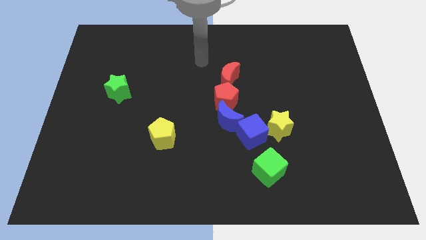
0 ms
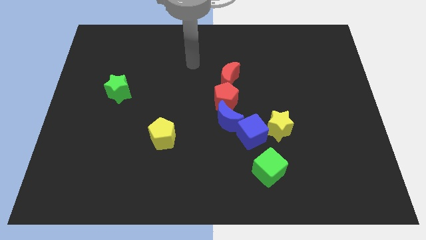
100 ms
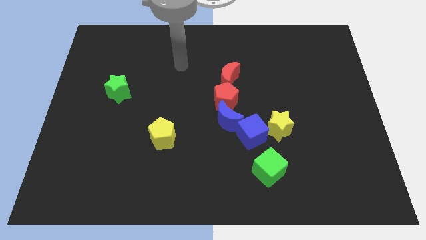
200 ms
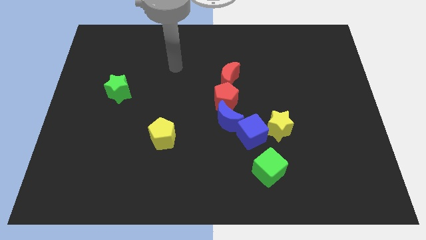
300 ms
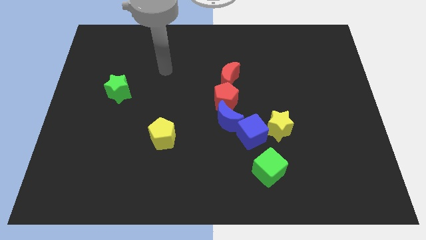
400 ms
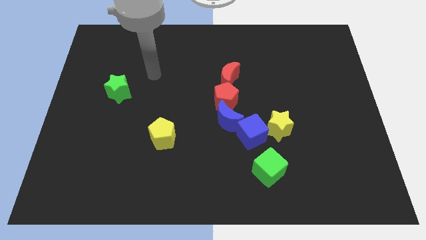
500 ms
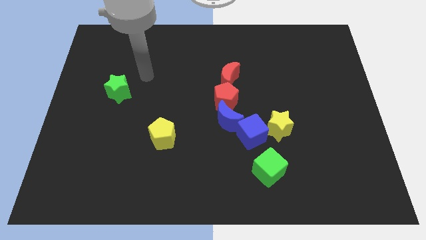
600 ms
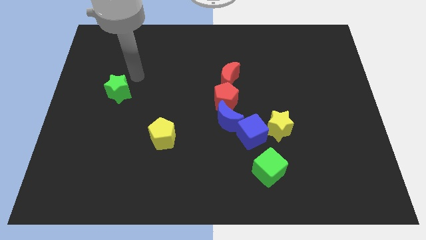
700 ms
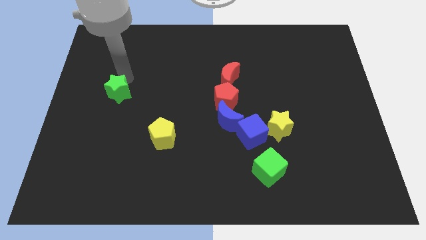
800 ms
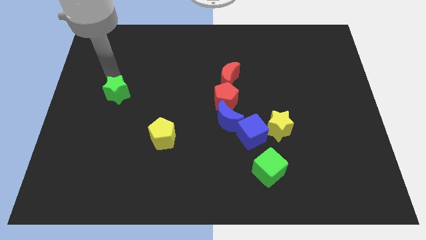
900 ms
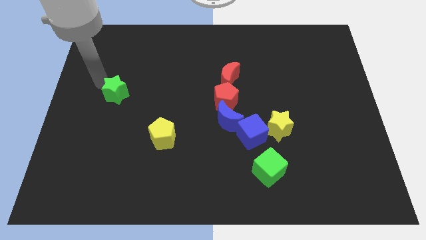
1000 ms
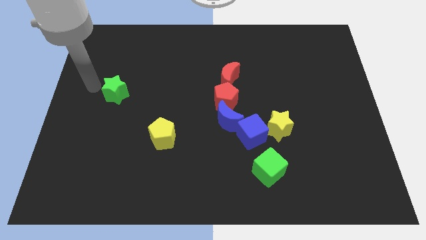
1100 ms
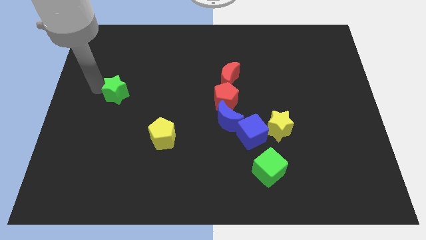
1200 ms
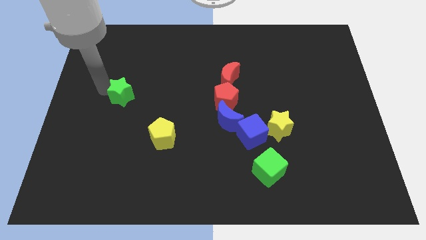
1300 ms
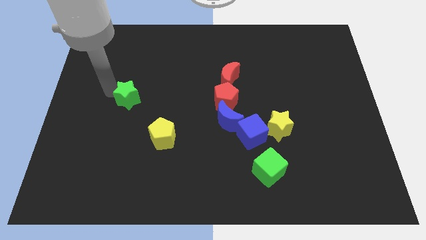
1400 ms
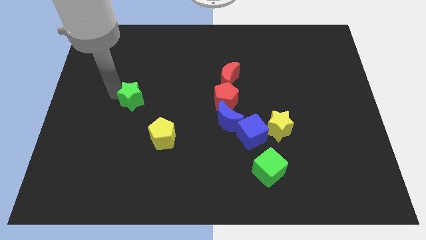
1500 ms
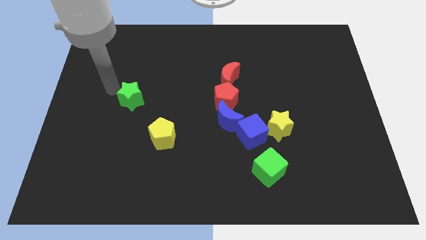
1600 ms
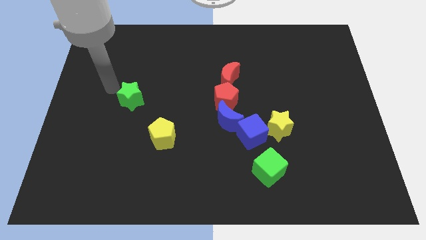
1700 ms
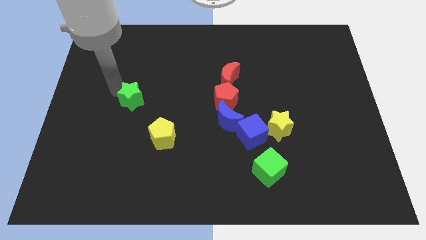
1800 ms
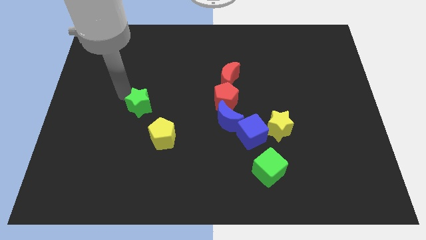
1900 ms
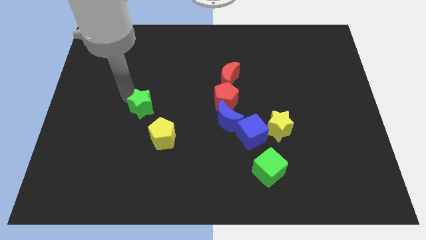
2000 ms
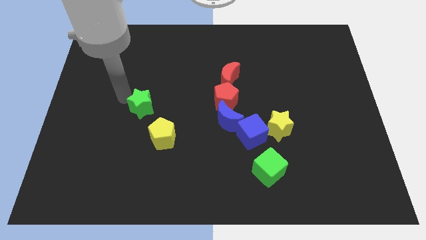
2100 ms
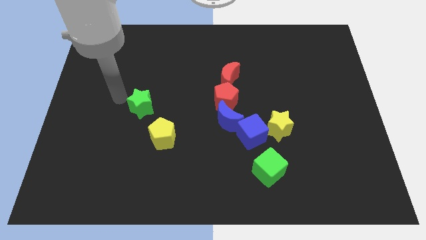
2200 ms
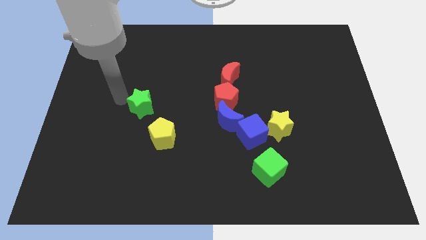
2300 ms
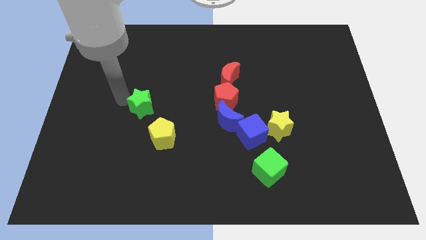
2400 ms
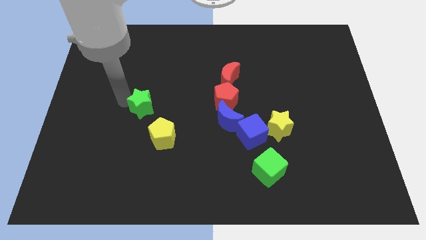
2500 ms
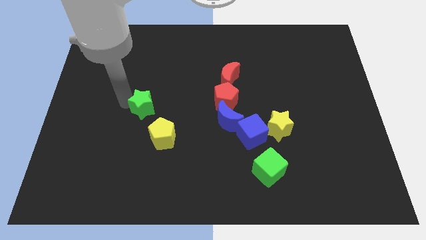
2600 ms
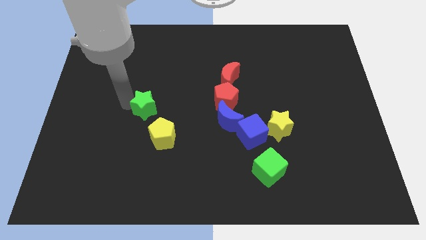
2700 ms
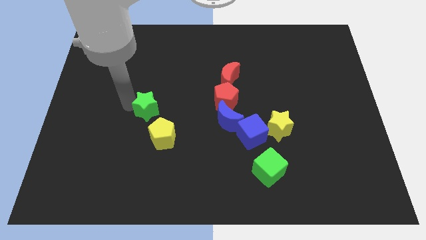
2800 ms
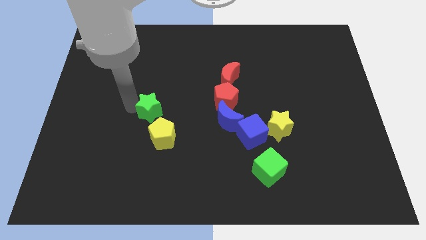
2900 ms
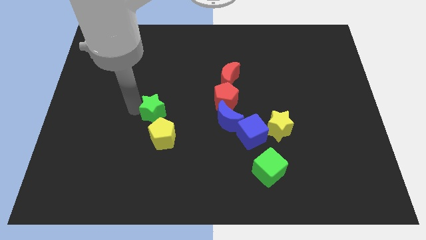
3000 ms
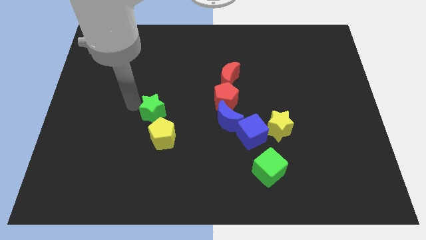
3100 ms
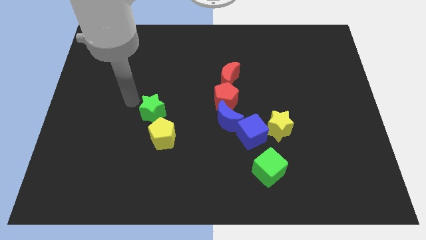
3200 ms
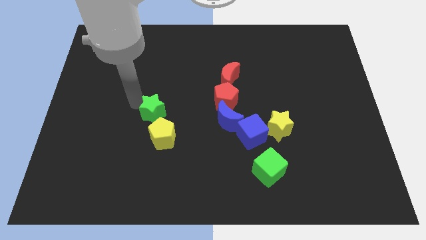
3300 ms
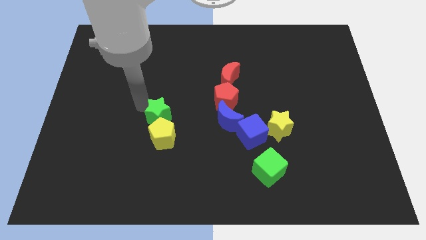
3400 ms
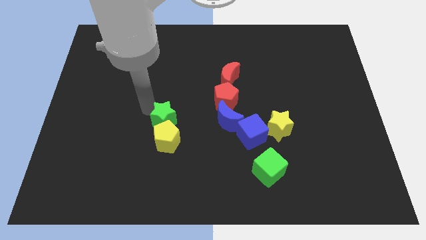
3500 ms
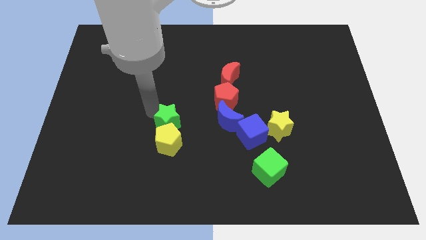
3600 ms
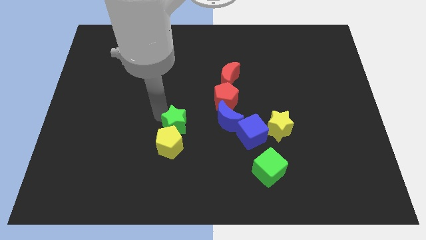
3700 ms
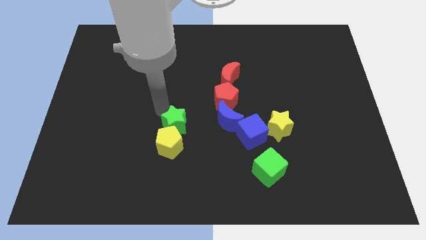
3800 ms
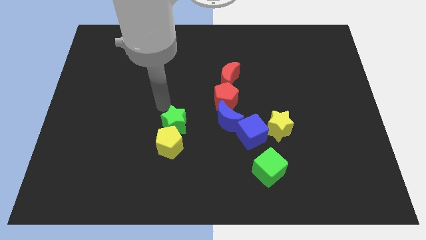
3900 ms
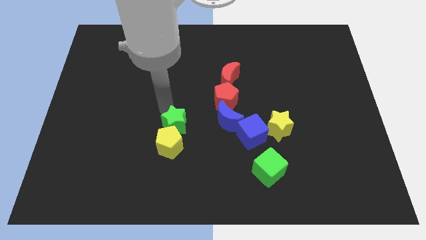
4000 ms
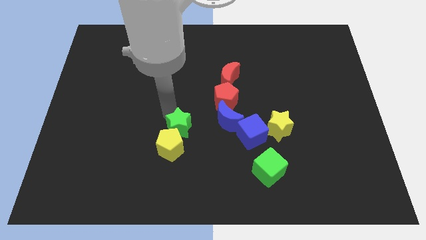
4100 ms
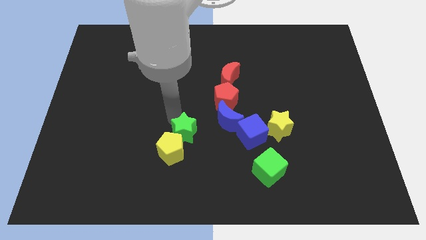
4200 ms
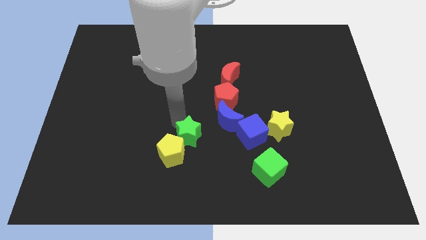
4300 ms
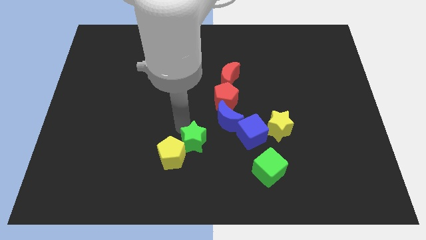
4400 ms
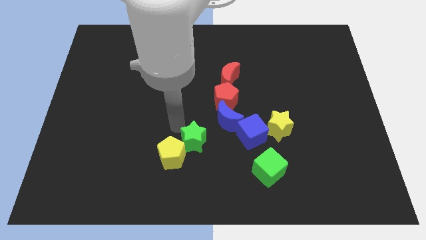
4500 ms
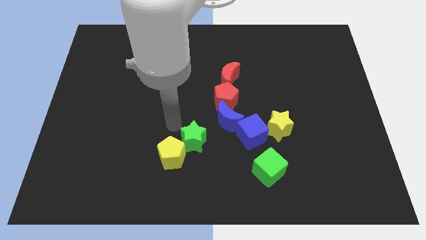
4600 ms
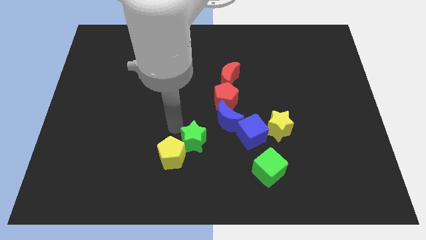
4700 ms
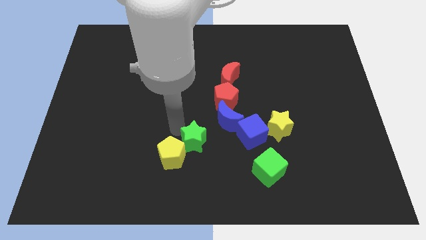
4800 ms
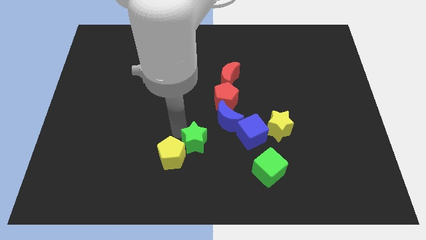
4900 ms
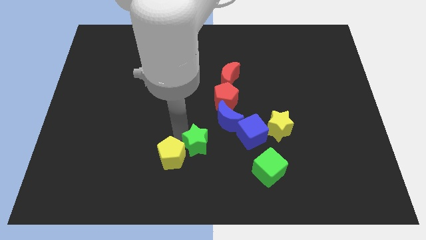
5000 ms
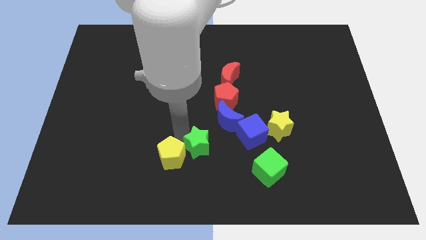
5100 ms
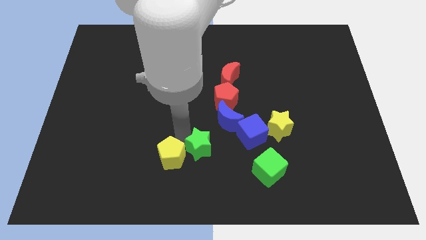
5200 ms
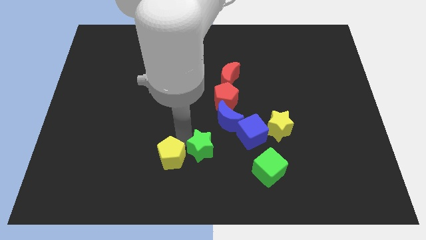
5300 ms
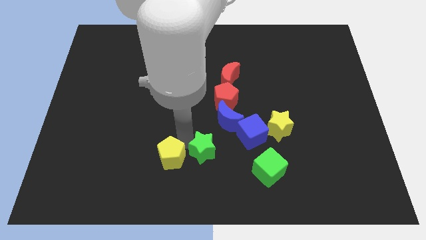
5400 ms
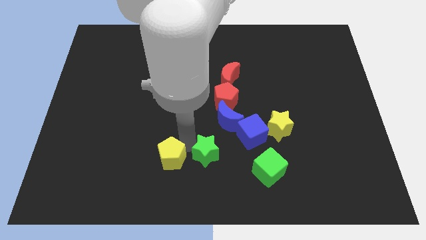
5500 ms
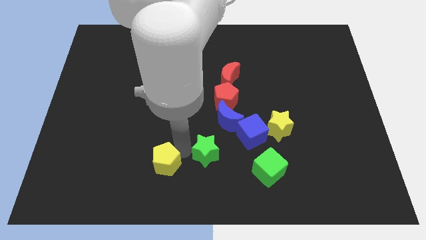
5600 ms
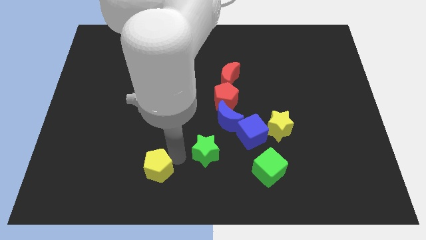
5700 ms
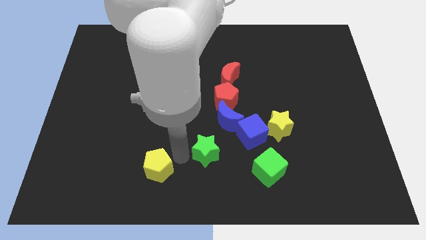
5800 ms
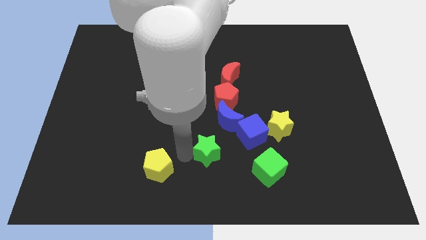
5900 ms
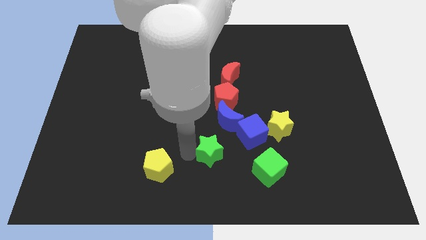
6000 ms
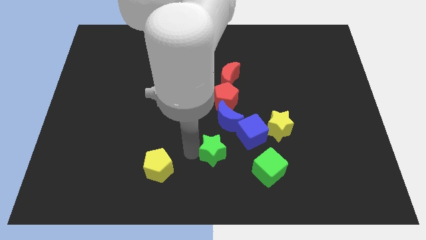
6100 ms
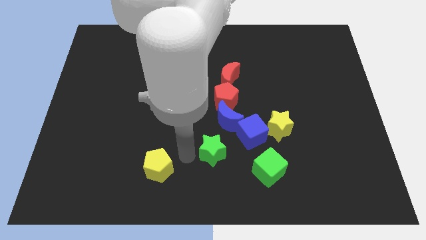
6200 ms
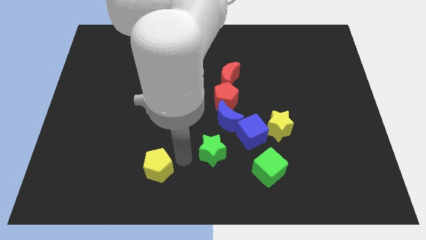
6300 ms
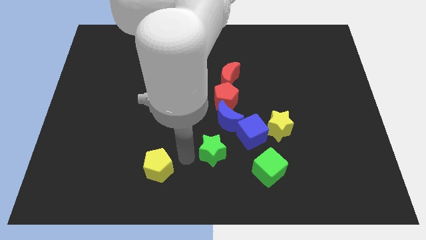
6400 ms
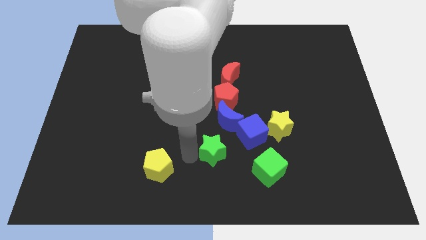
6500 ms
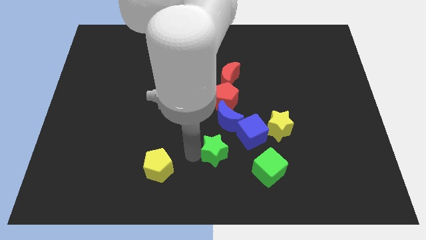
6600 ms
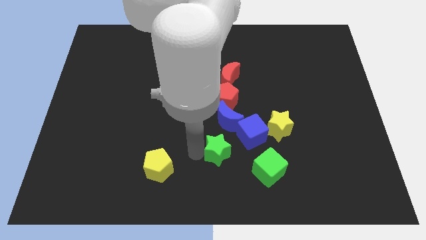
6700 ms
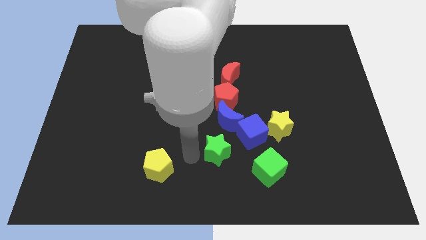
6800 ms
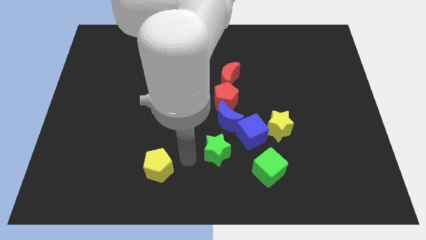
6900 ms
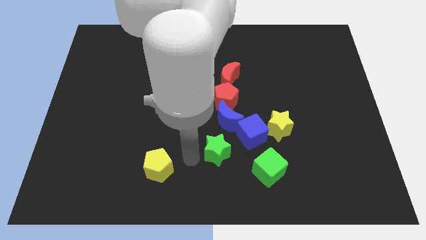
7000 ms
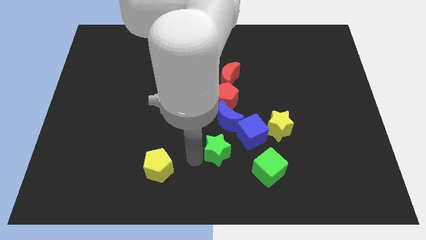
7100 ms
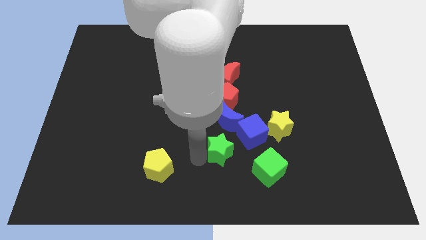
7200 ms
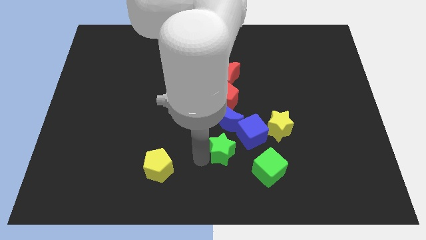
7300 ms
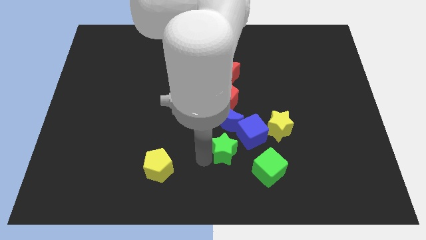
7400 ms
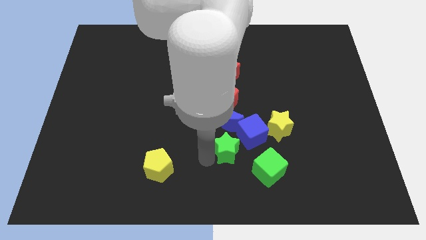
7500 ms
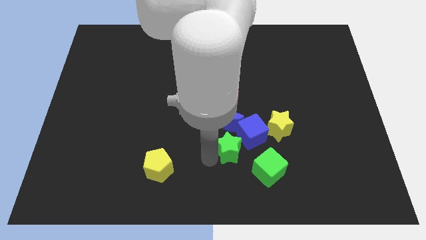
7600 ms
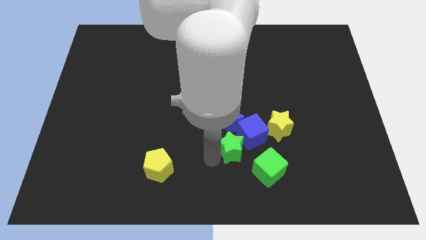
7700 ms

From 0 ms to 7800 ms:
move the green star towards the blue cube

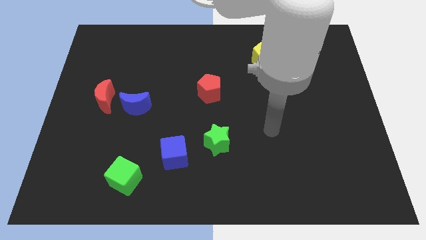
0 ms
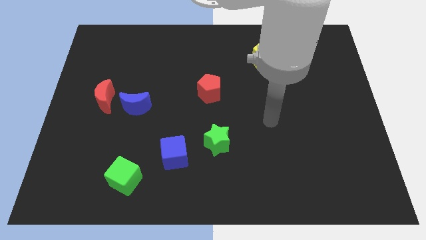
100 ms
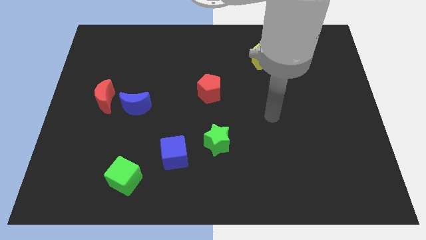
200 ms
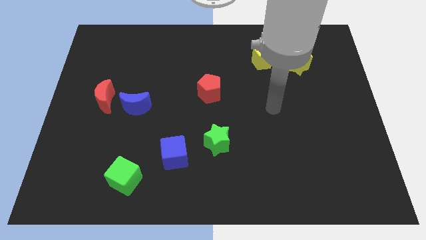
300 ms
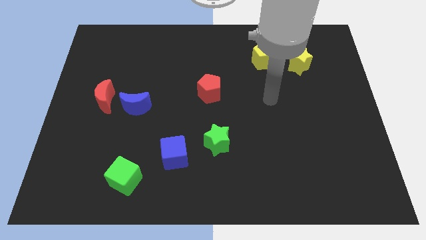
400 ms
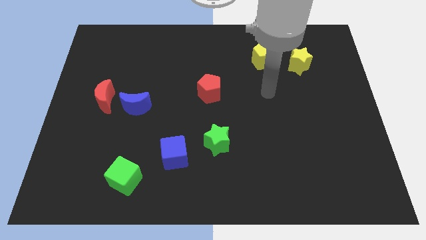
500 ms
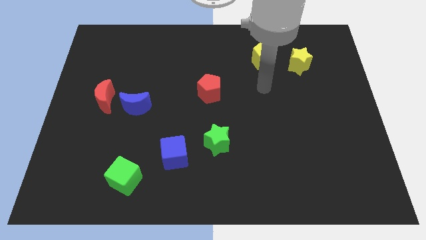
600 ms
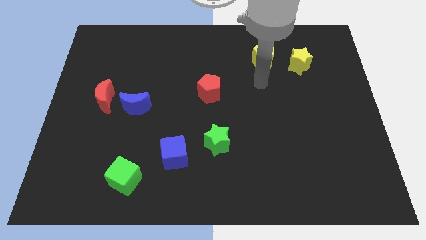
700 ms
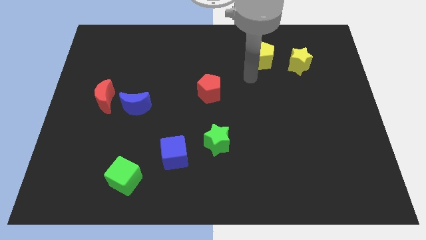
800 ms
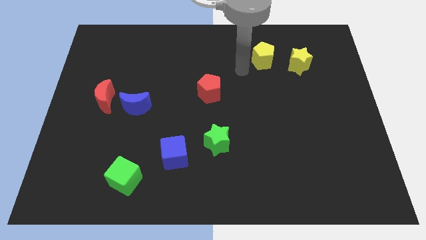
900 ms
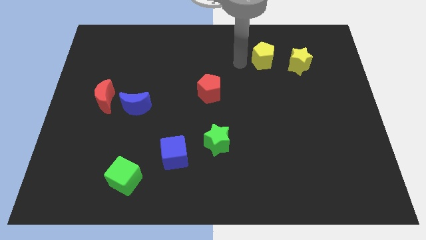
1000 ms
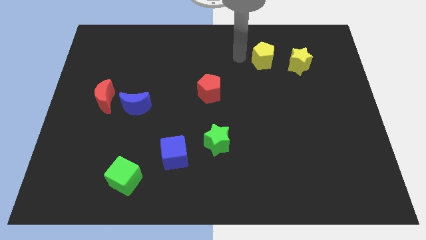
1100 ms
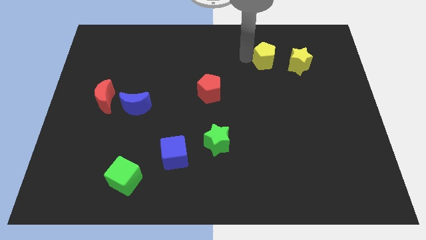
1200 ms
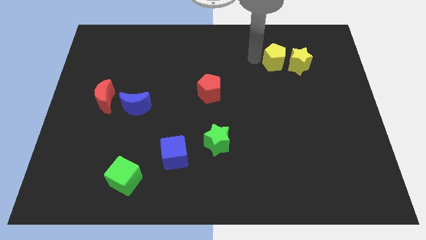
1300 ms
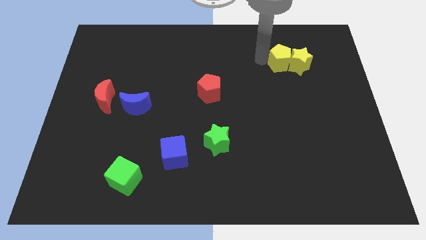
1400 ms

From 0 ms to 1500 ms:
put the yellow pentagon close to the yellow star
